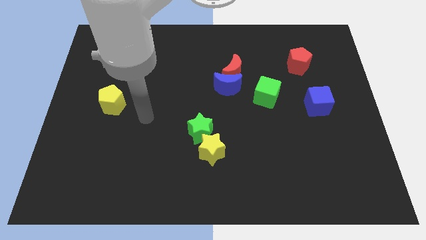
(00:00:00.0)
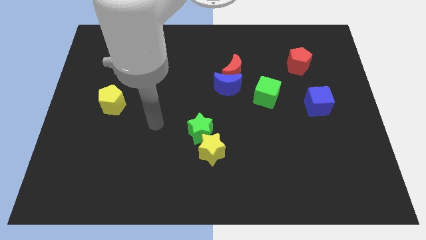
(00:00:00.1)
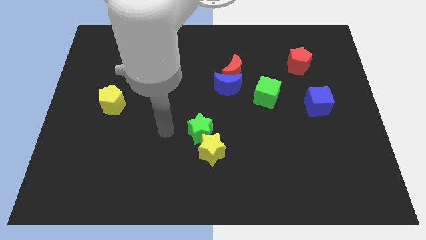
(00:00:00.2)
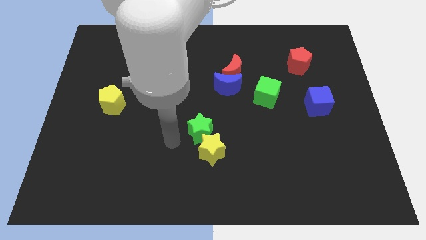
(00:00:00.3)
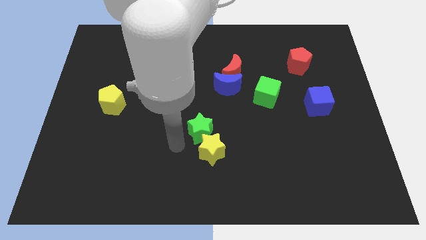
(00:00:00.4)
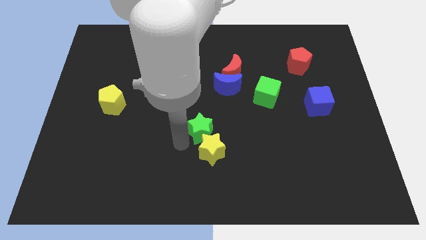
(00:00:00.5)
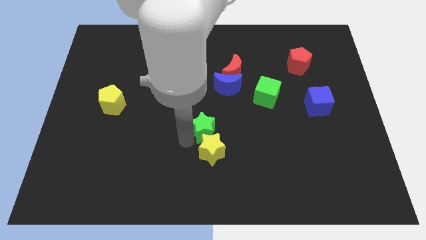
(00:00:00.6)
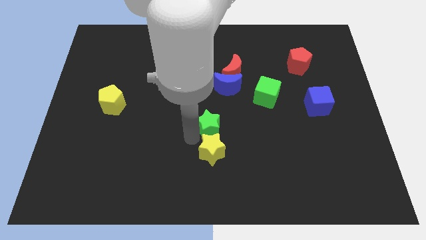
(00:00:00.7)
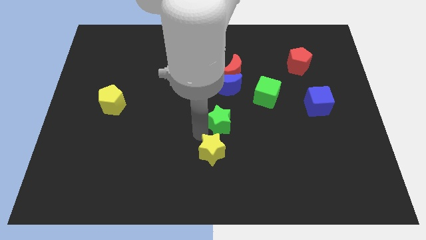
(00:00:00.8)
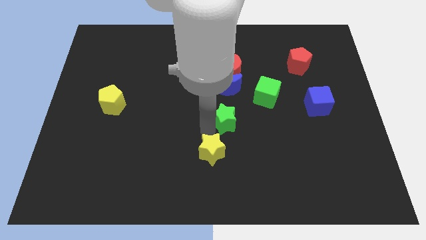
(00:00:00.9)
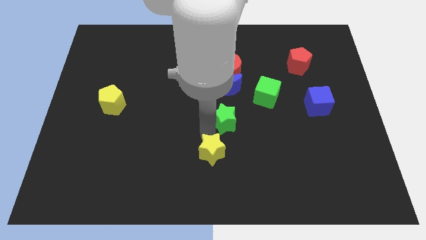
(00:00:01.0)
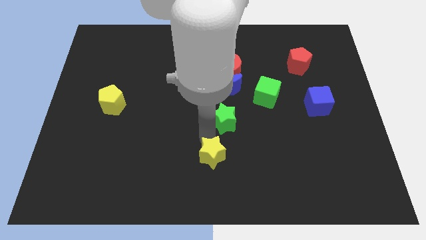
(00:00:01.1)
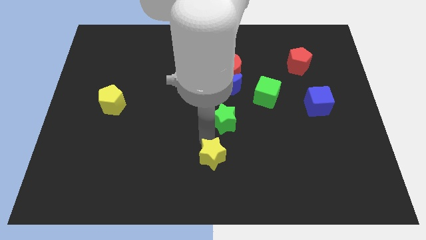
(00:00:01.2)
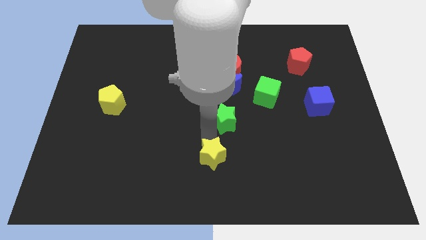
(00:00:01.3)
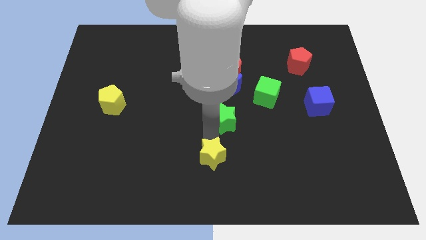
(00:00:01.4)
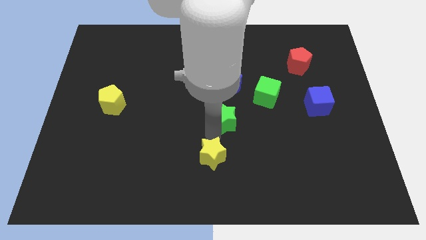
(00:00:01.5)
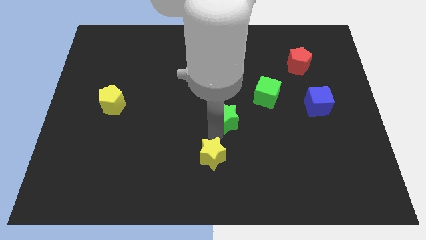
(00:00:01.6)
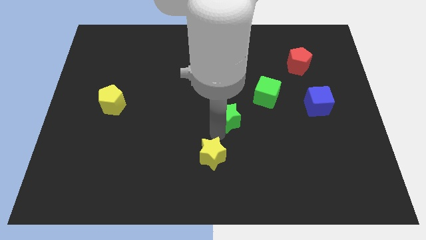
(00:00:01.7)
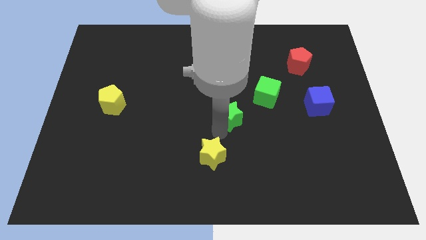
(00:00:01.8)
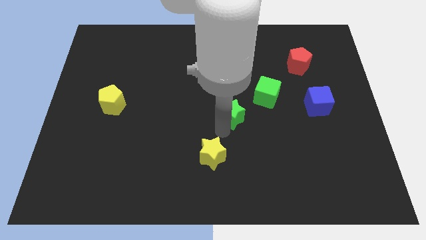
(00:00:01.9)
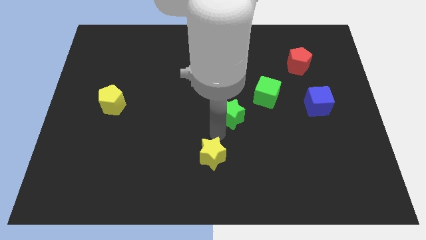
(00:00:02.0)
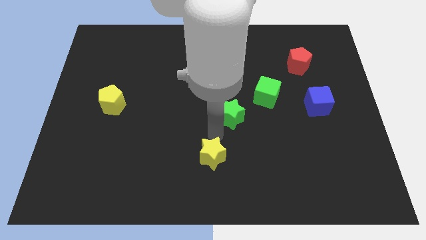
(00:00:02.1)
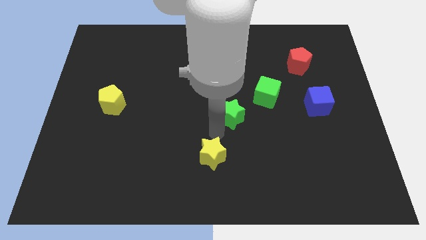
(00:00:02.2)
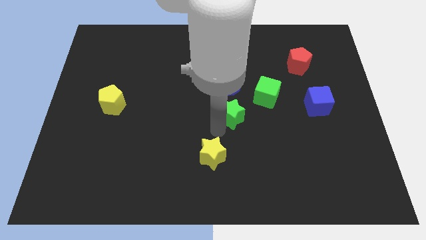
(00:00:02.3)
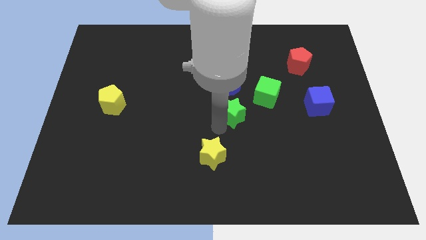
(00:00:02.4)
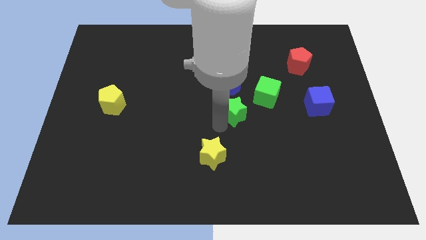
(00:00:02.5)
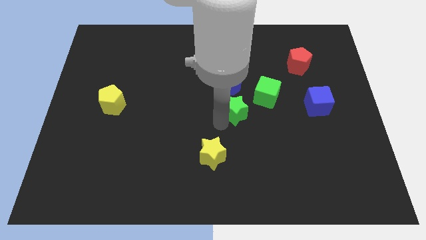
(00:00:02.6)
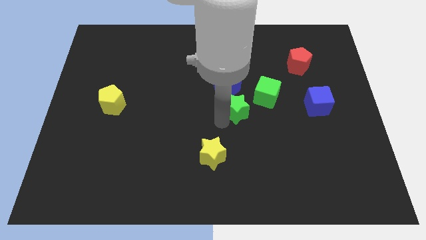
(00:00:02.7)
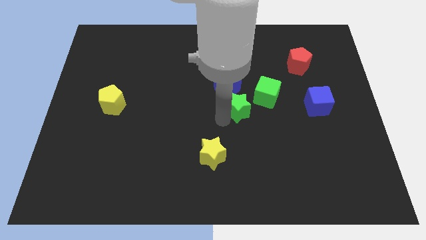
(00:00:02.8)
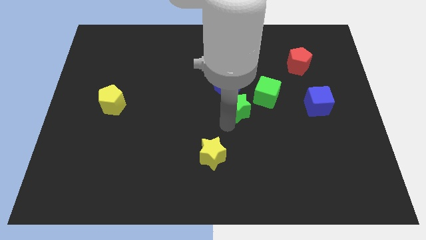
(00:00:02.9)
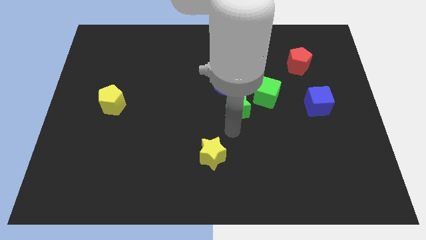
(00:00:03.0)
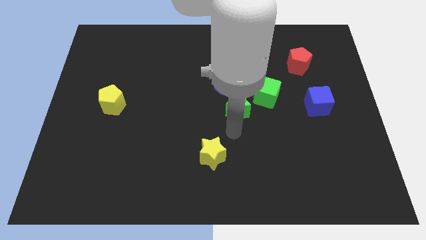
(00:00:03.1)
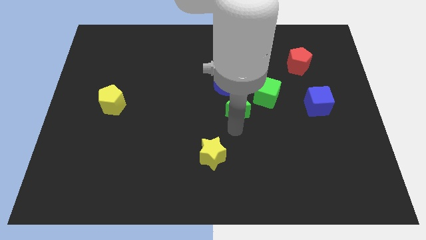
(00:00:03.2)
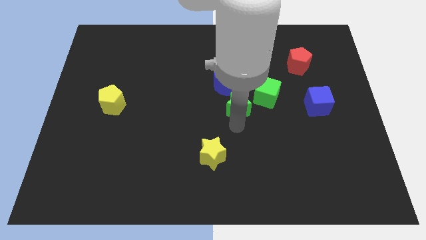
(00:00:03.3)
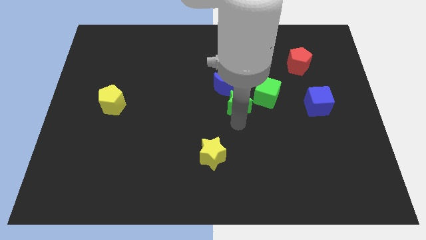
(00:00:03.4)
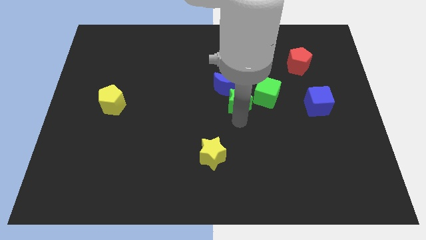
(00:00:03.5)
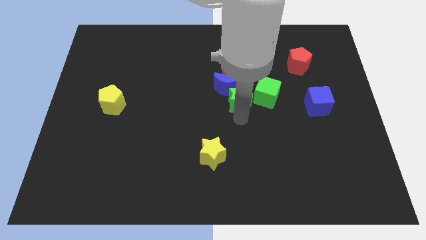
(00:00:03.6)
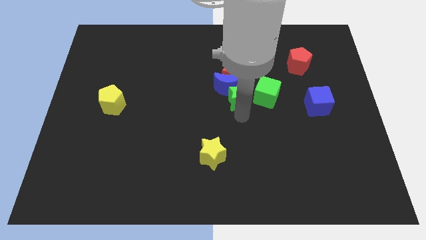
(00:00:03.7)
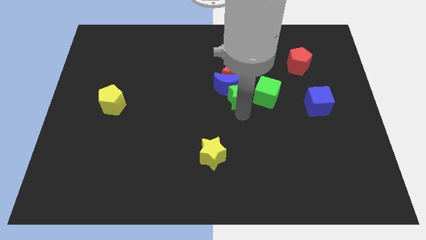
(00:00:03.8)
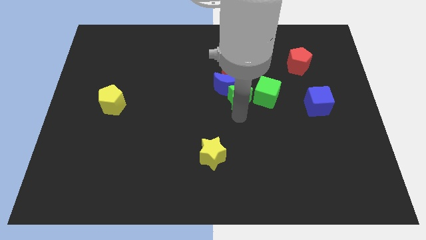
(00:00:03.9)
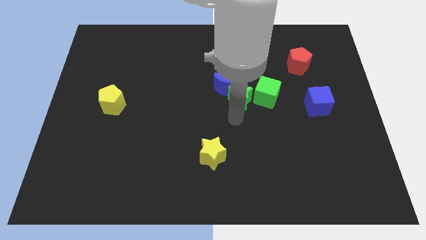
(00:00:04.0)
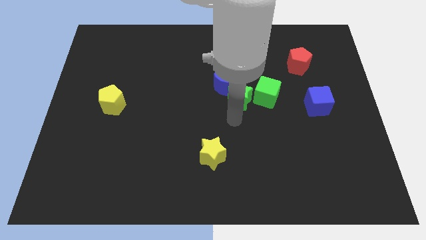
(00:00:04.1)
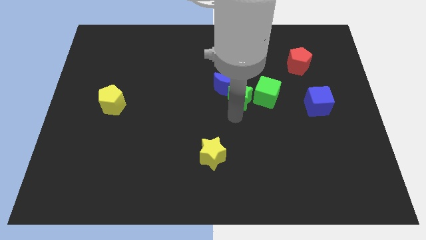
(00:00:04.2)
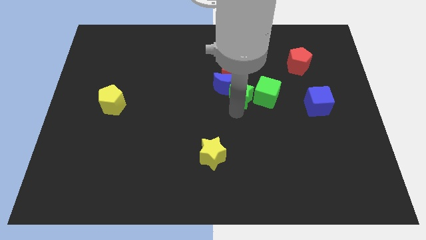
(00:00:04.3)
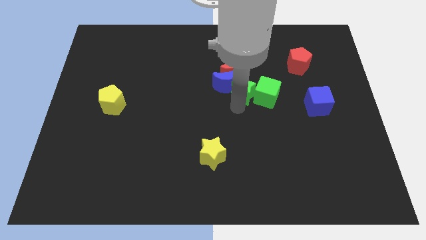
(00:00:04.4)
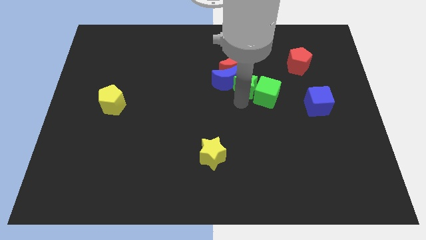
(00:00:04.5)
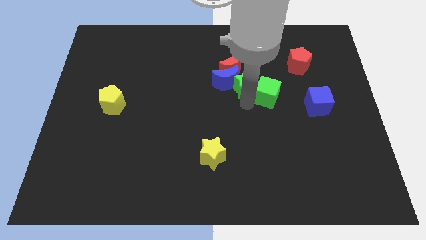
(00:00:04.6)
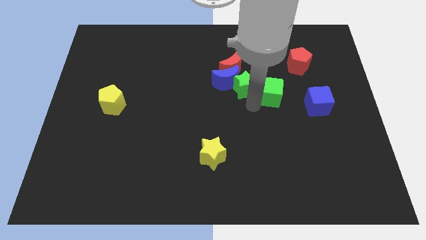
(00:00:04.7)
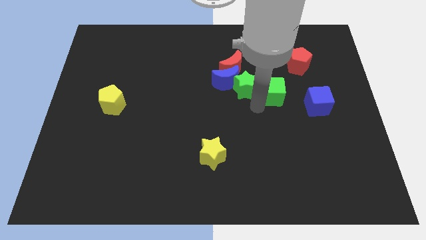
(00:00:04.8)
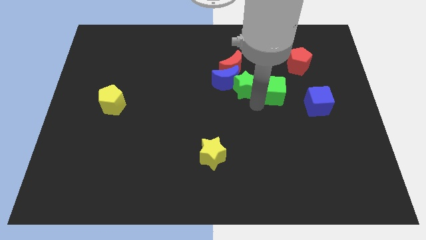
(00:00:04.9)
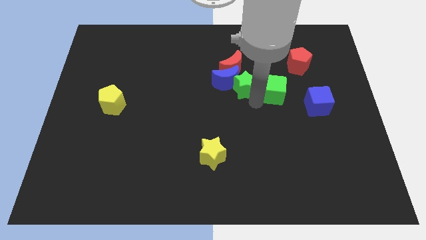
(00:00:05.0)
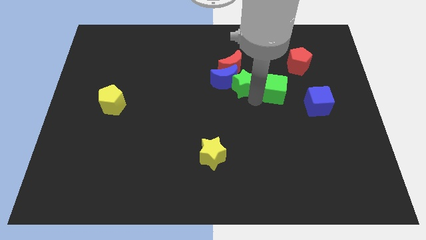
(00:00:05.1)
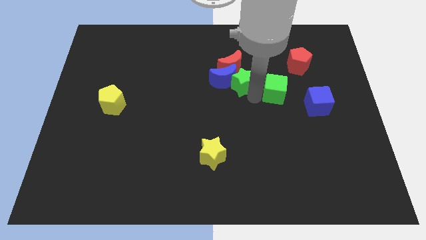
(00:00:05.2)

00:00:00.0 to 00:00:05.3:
move the green star towards the red moon
